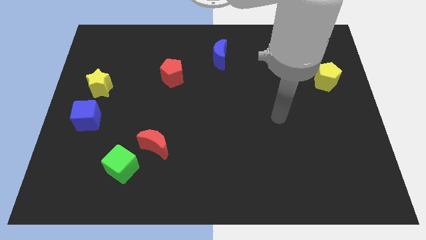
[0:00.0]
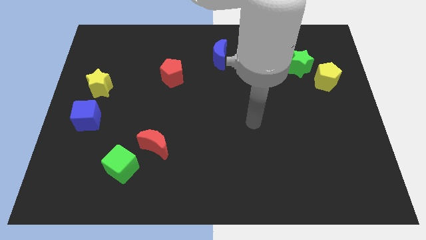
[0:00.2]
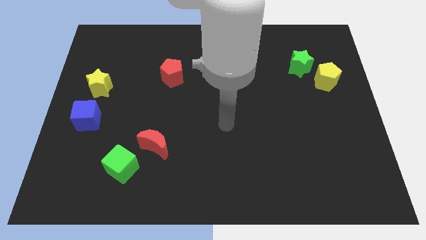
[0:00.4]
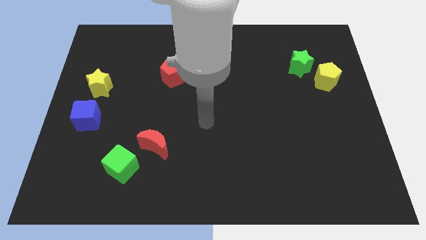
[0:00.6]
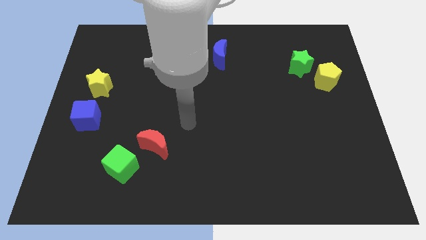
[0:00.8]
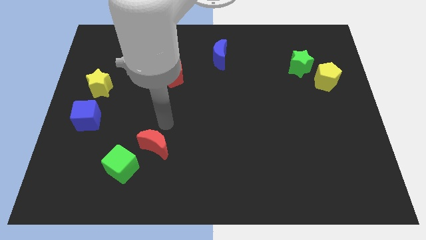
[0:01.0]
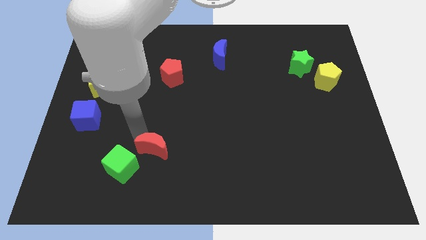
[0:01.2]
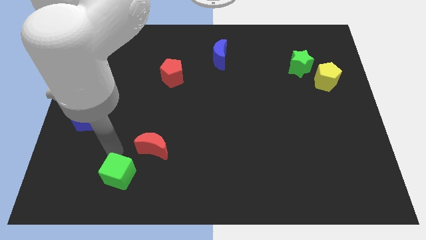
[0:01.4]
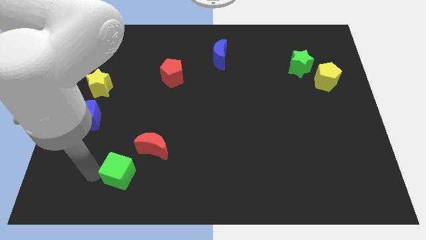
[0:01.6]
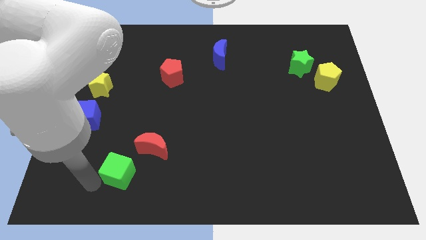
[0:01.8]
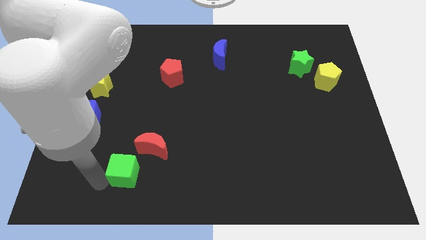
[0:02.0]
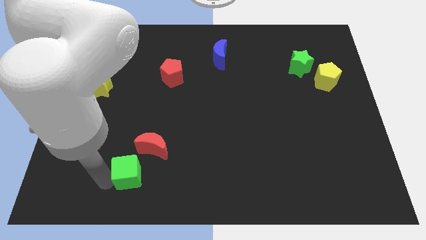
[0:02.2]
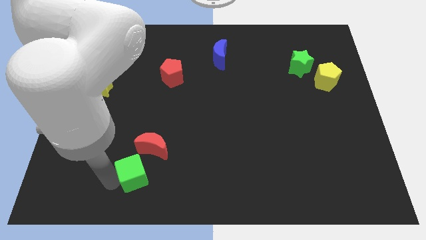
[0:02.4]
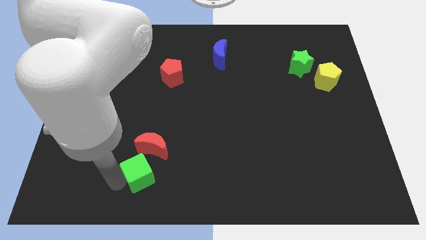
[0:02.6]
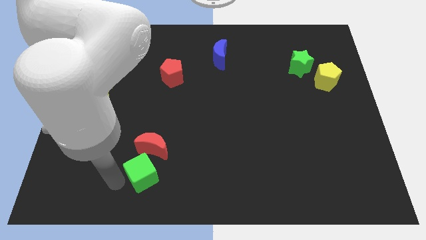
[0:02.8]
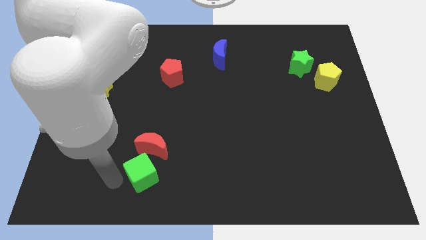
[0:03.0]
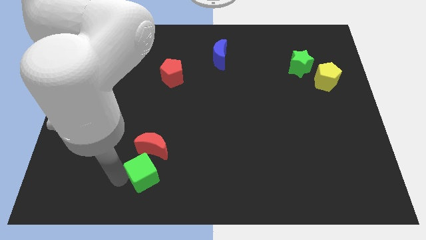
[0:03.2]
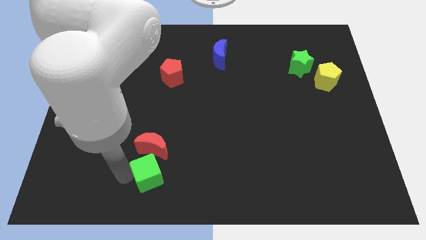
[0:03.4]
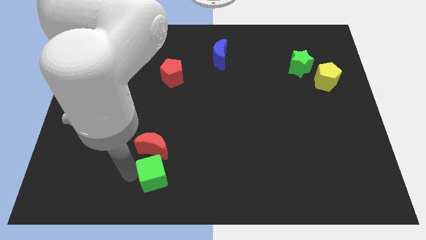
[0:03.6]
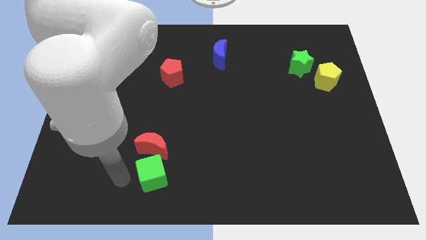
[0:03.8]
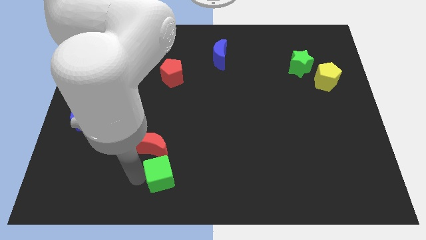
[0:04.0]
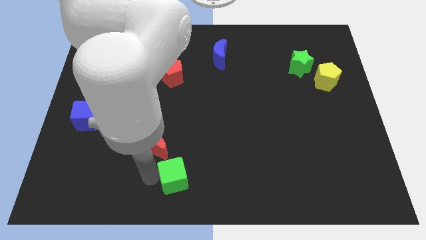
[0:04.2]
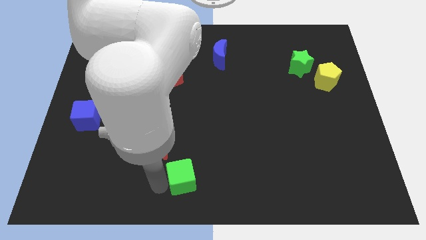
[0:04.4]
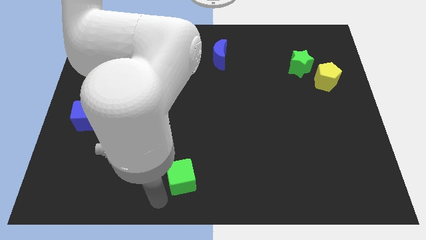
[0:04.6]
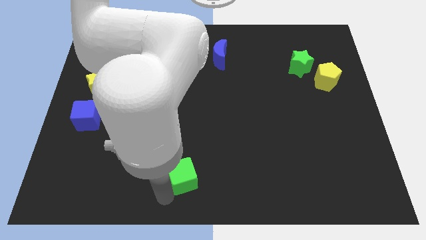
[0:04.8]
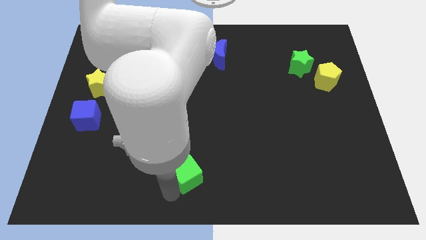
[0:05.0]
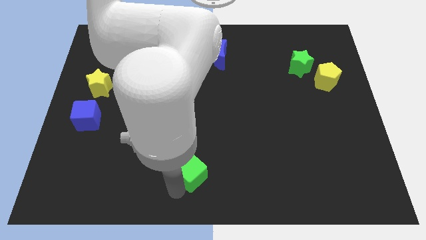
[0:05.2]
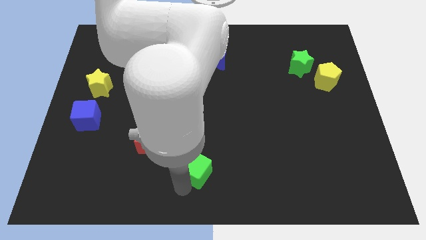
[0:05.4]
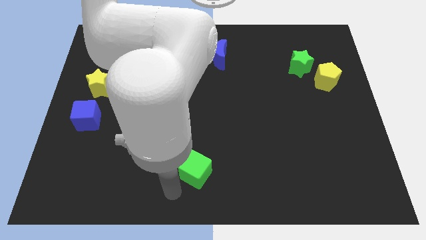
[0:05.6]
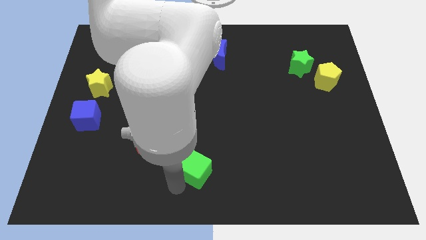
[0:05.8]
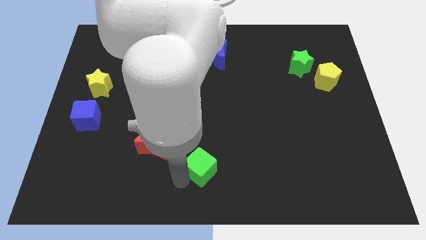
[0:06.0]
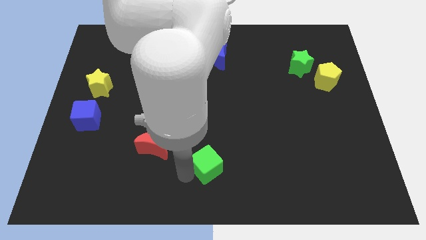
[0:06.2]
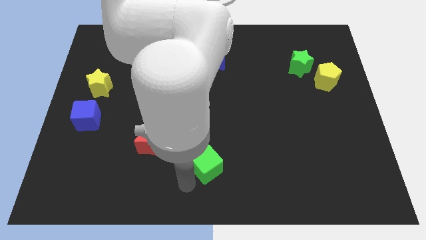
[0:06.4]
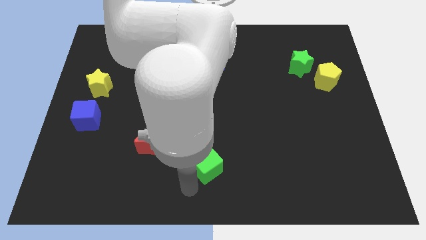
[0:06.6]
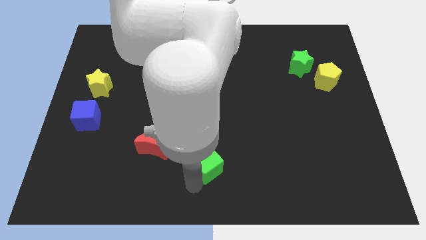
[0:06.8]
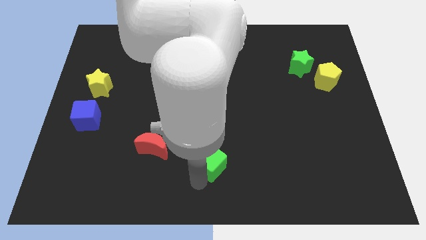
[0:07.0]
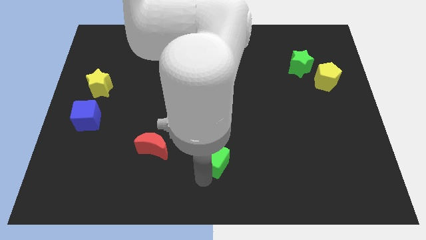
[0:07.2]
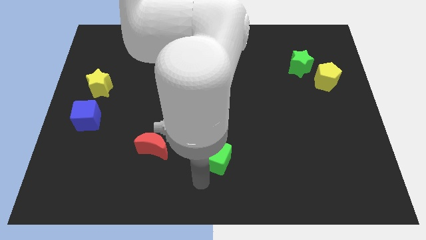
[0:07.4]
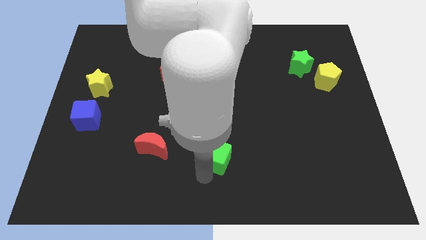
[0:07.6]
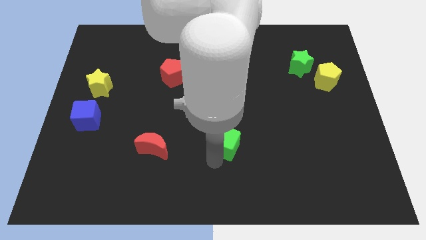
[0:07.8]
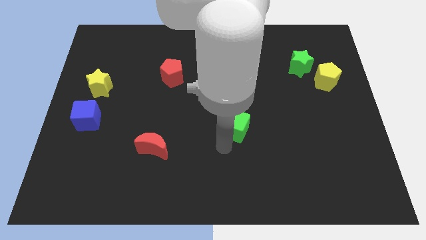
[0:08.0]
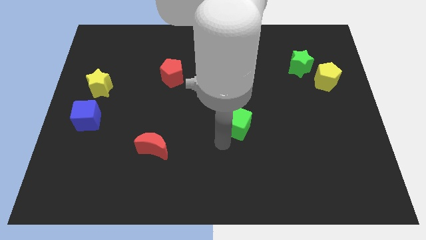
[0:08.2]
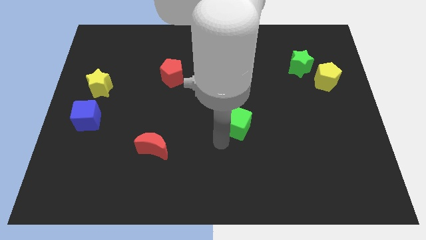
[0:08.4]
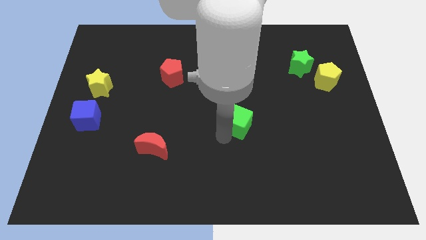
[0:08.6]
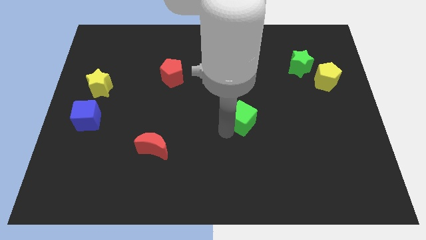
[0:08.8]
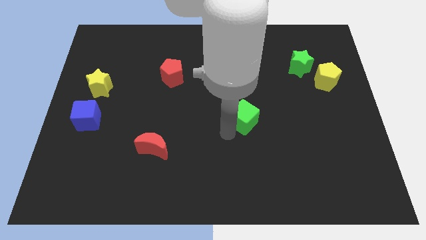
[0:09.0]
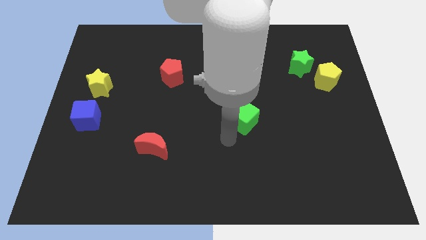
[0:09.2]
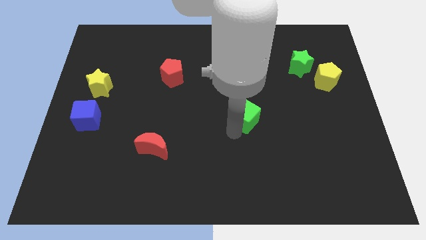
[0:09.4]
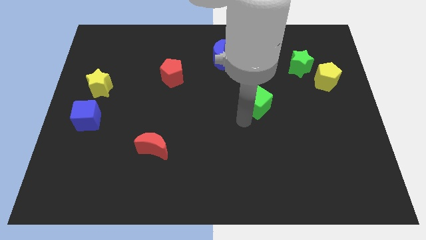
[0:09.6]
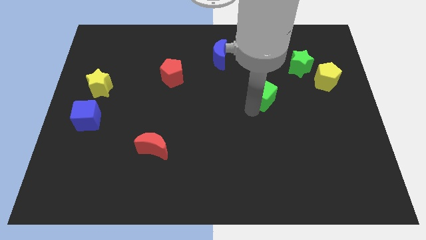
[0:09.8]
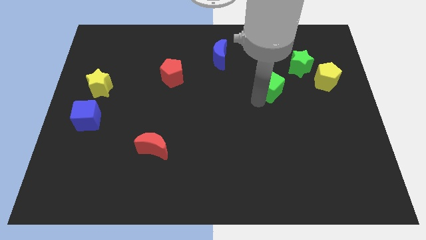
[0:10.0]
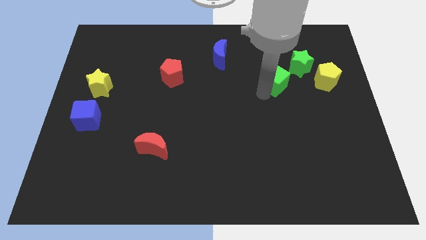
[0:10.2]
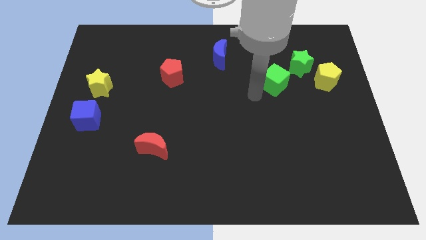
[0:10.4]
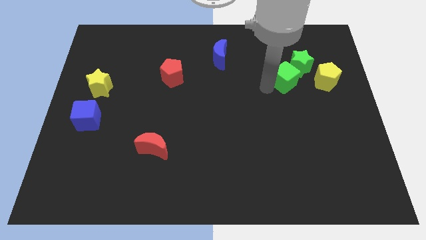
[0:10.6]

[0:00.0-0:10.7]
slide the green cube next to the green star

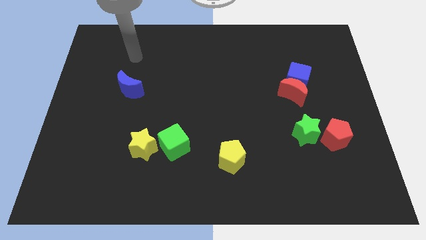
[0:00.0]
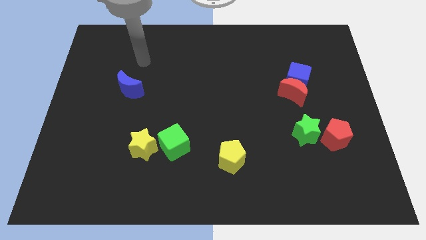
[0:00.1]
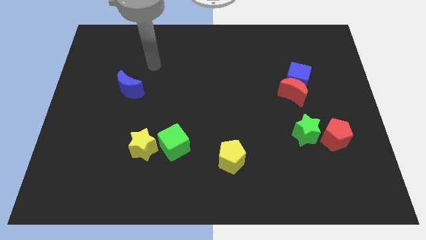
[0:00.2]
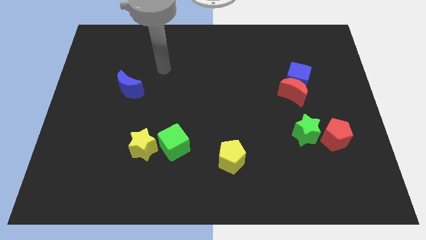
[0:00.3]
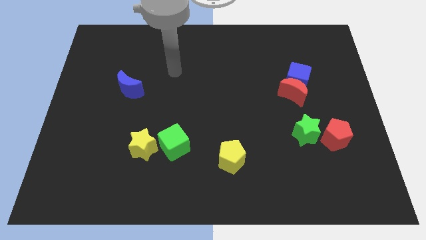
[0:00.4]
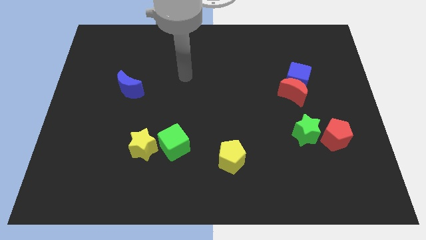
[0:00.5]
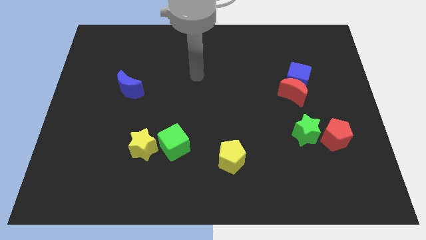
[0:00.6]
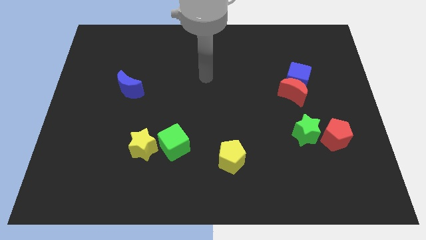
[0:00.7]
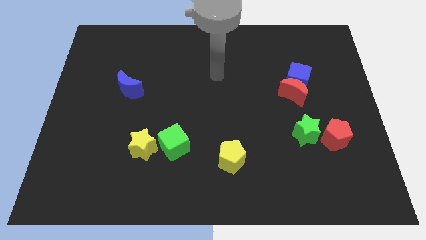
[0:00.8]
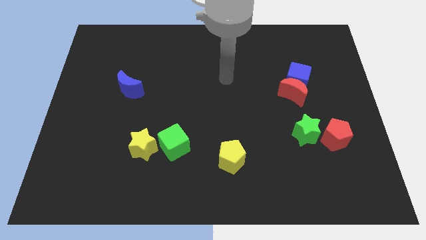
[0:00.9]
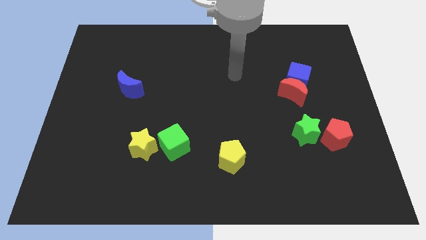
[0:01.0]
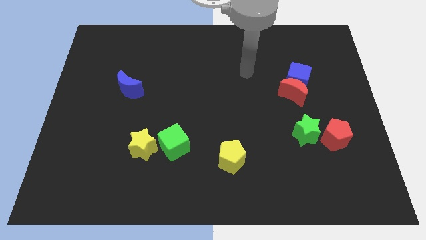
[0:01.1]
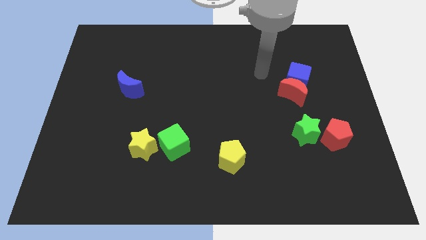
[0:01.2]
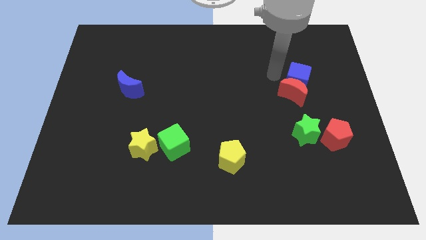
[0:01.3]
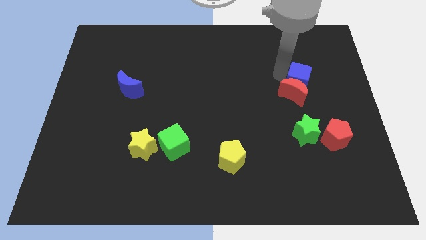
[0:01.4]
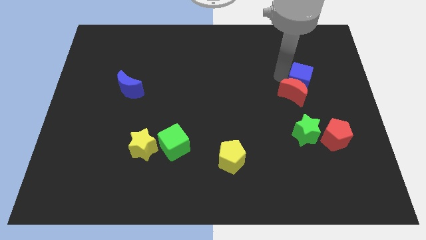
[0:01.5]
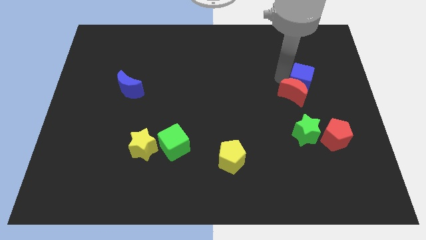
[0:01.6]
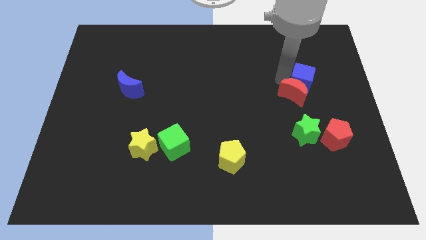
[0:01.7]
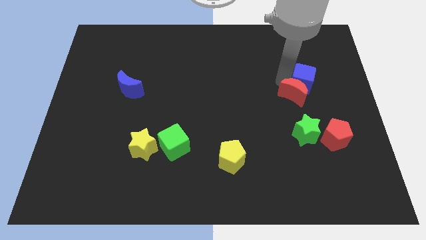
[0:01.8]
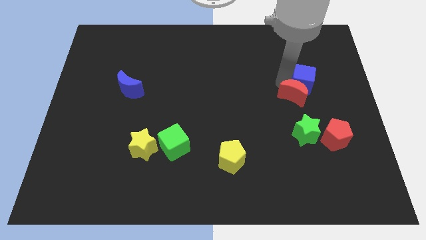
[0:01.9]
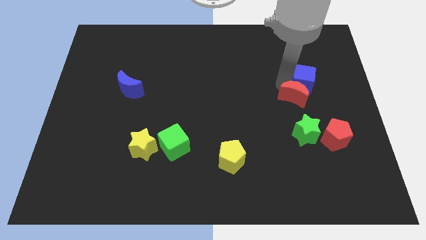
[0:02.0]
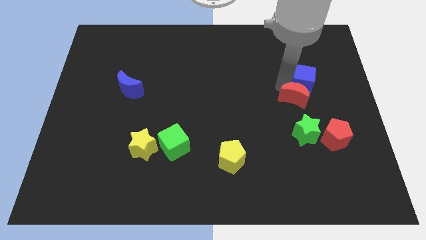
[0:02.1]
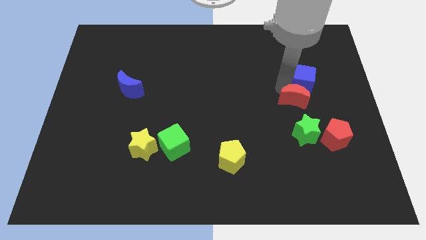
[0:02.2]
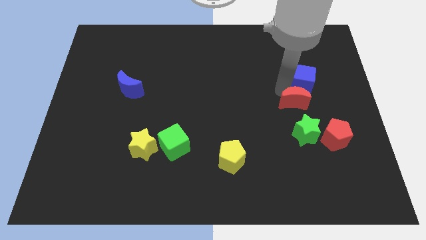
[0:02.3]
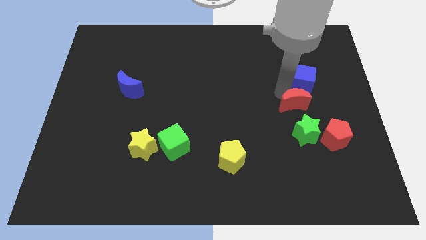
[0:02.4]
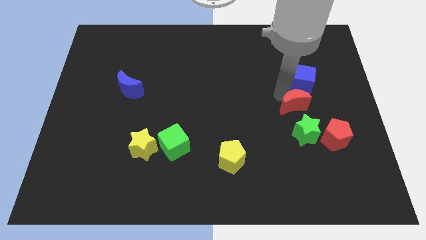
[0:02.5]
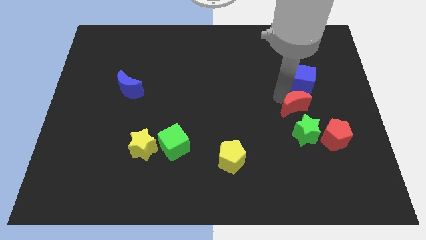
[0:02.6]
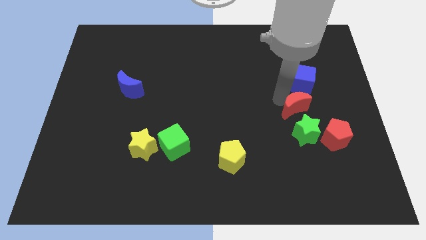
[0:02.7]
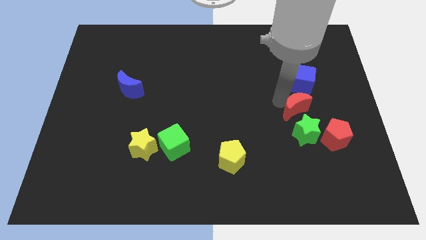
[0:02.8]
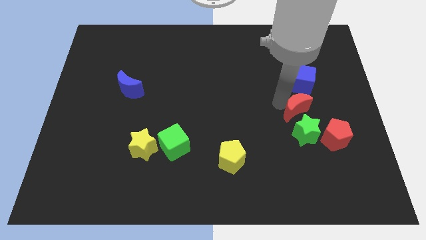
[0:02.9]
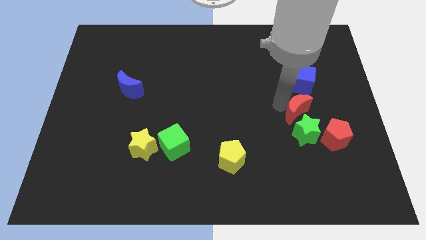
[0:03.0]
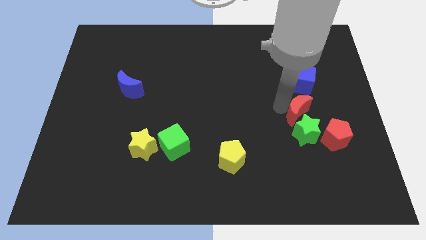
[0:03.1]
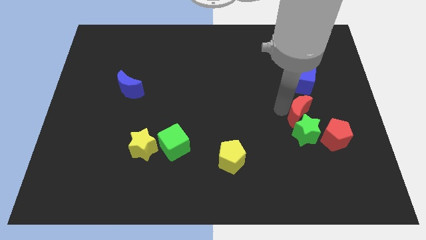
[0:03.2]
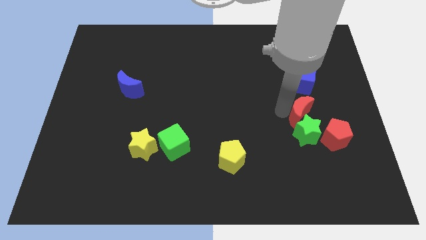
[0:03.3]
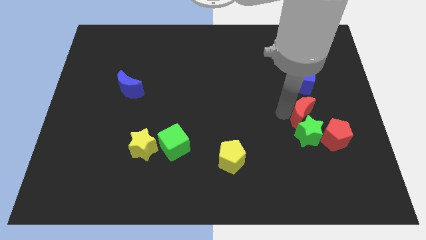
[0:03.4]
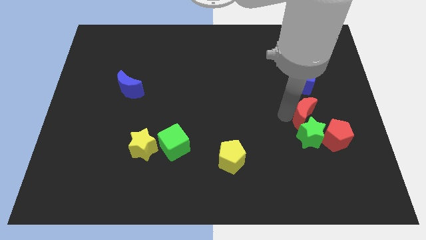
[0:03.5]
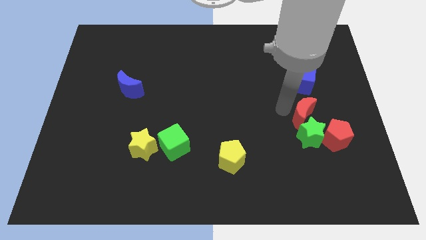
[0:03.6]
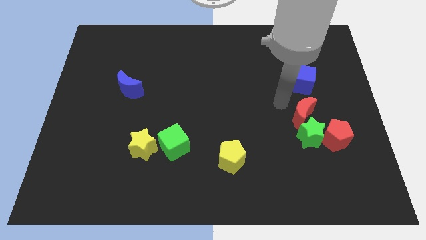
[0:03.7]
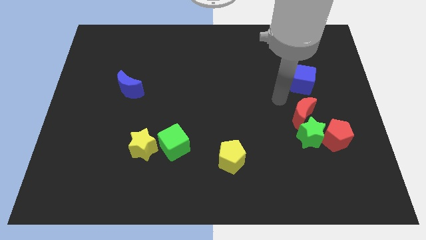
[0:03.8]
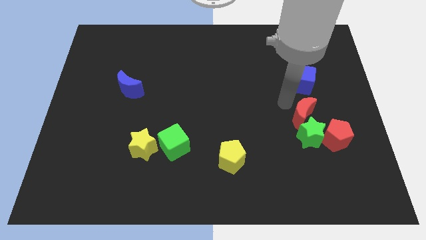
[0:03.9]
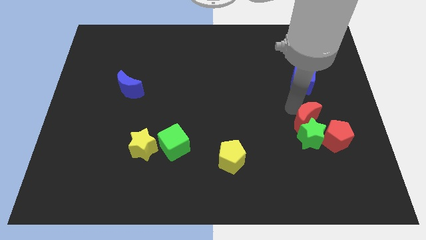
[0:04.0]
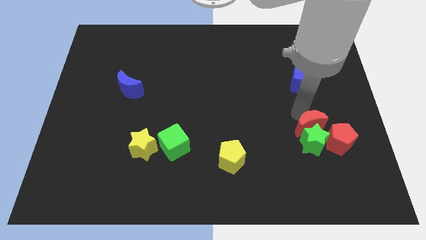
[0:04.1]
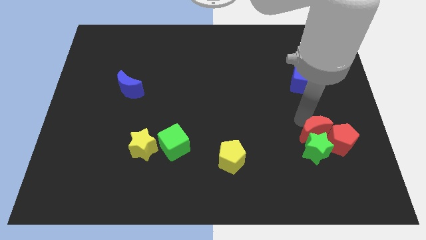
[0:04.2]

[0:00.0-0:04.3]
slide the red moon next to the red pentagon
